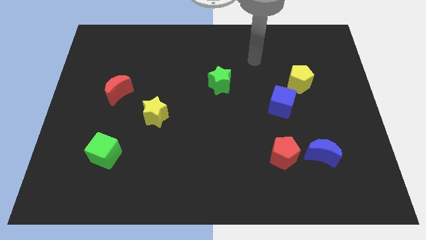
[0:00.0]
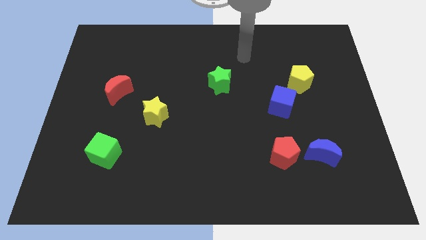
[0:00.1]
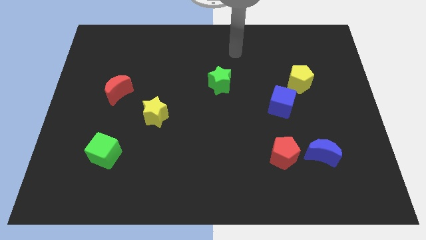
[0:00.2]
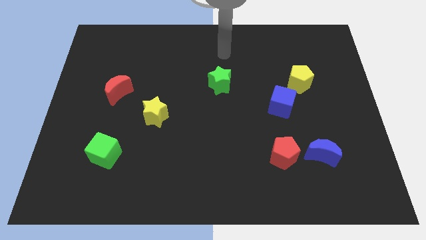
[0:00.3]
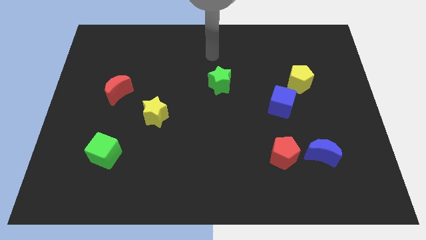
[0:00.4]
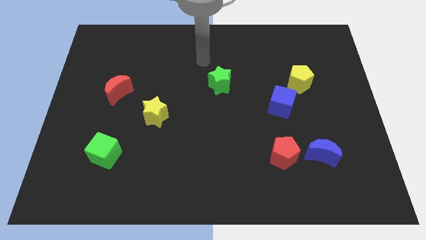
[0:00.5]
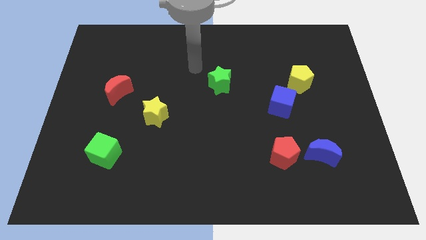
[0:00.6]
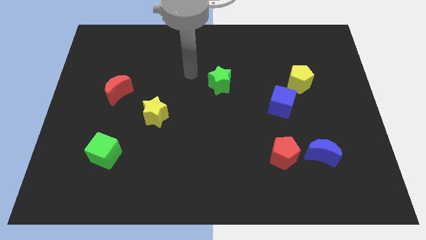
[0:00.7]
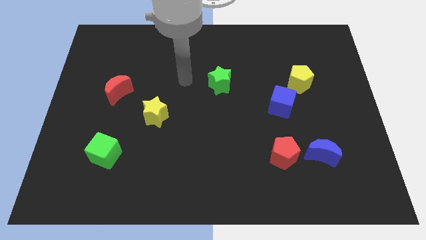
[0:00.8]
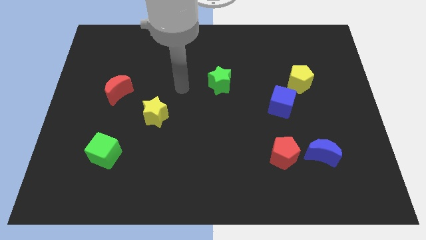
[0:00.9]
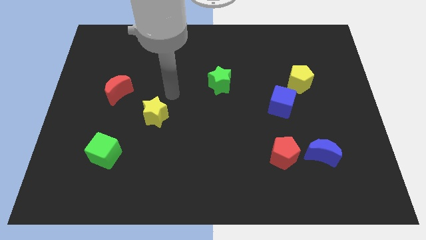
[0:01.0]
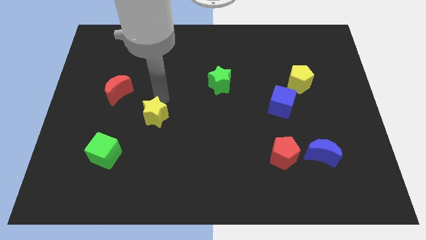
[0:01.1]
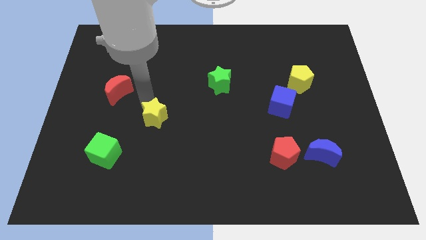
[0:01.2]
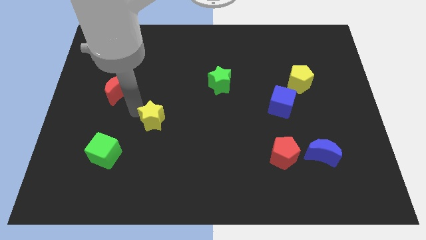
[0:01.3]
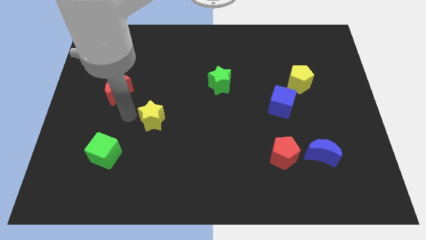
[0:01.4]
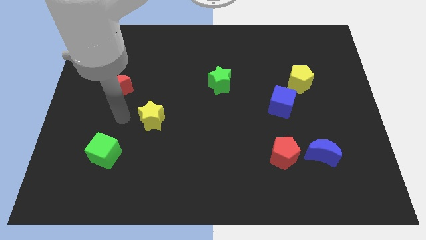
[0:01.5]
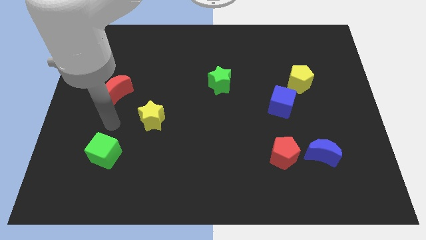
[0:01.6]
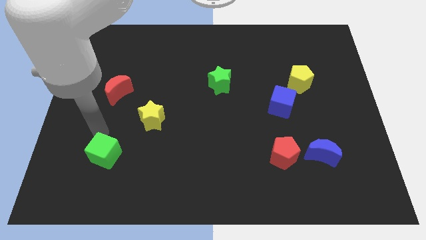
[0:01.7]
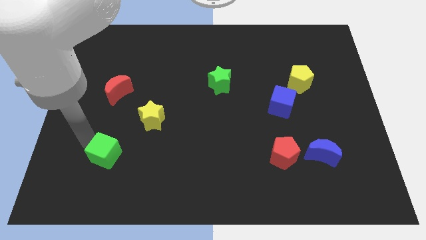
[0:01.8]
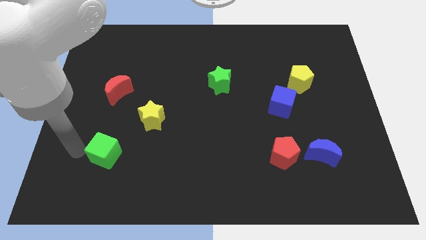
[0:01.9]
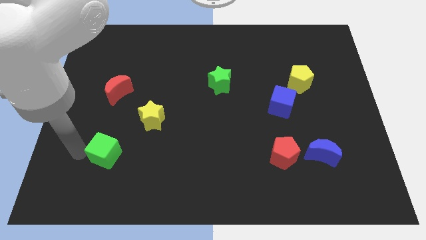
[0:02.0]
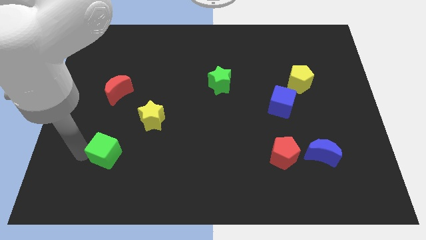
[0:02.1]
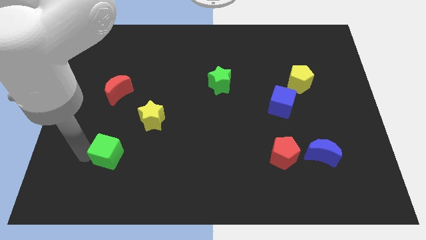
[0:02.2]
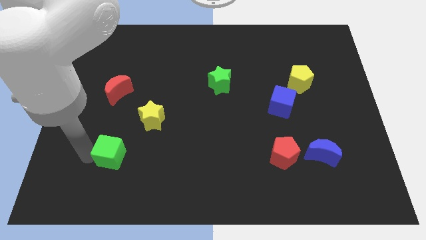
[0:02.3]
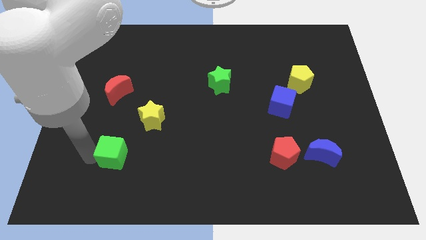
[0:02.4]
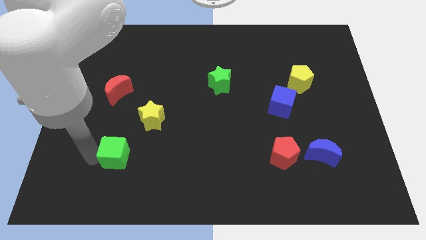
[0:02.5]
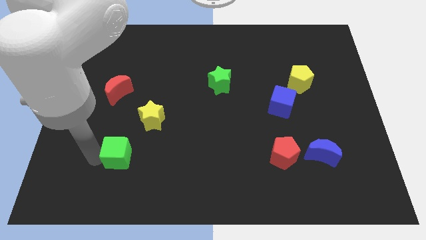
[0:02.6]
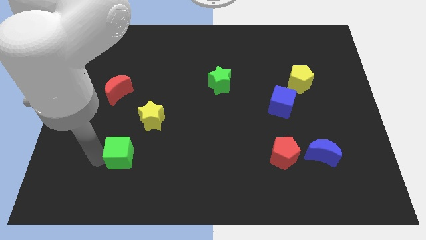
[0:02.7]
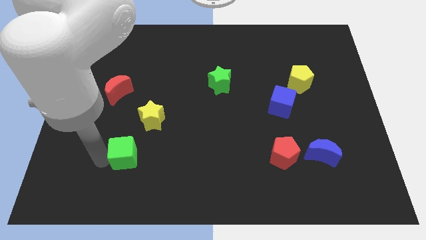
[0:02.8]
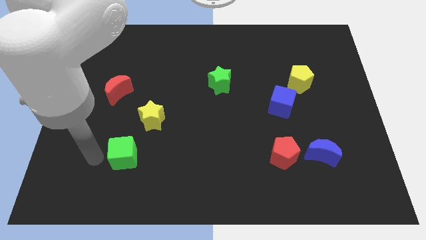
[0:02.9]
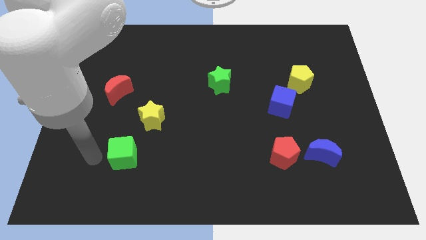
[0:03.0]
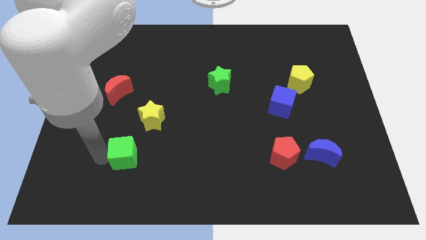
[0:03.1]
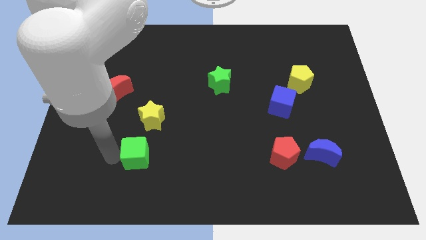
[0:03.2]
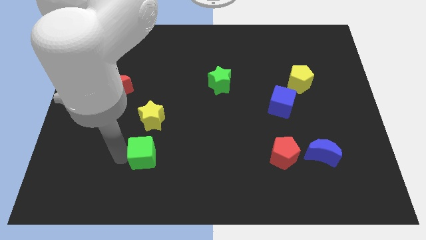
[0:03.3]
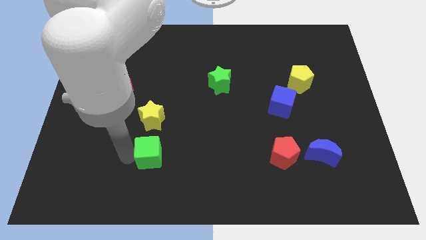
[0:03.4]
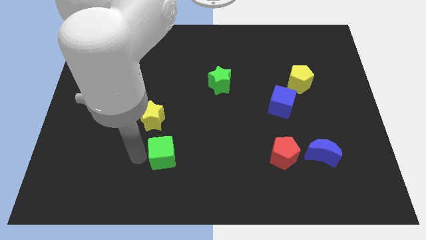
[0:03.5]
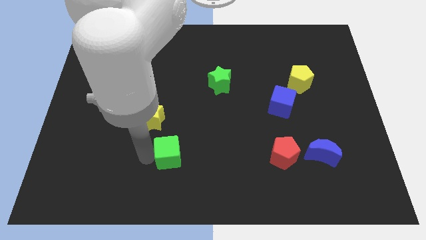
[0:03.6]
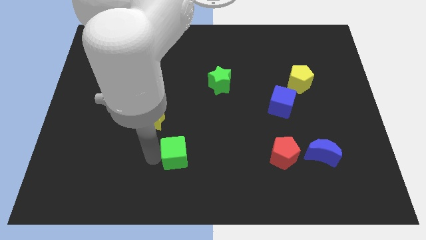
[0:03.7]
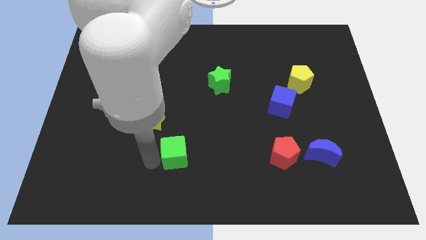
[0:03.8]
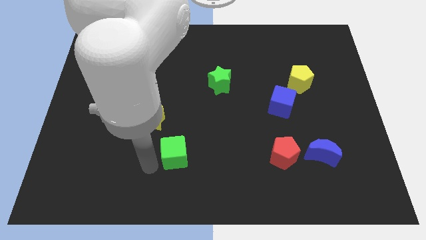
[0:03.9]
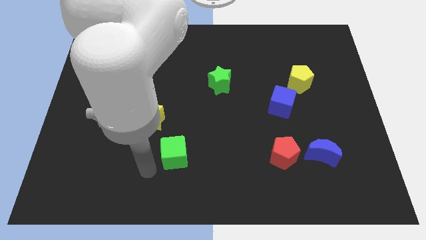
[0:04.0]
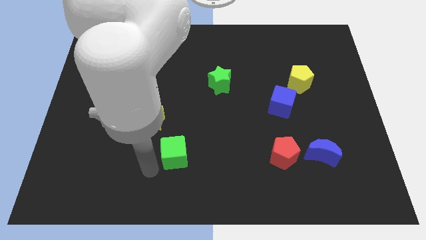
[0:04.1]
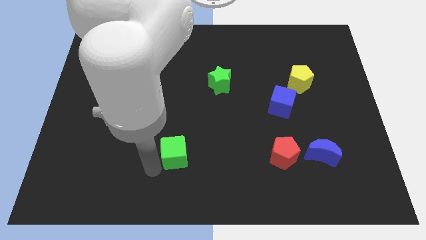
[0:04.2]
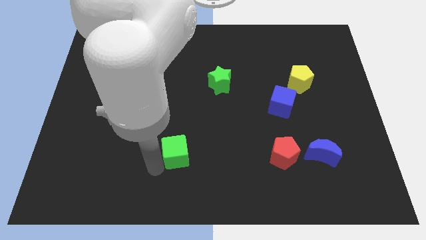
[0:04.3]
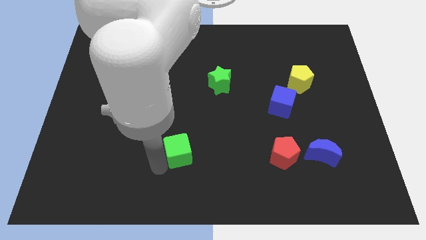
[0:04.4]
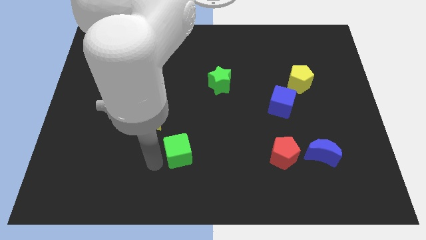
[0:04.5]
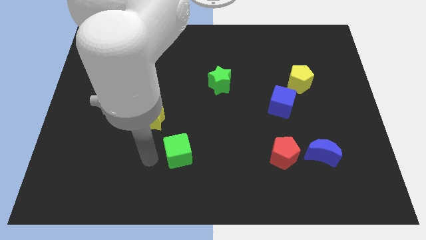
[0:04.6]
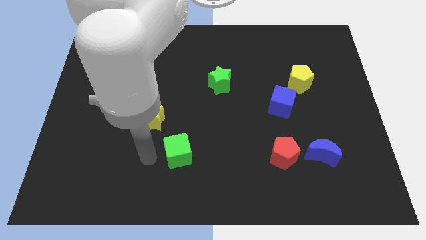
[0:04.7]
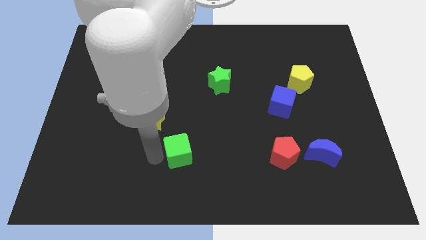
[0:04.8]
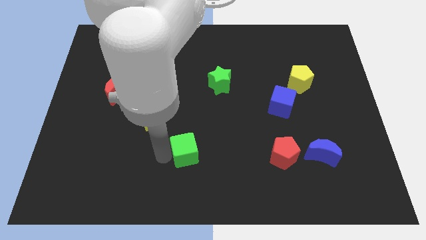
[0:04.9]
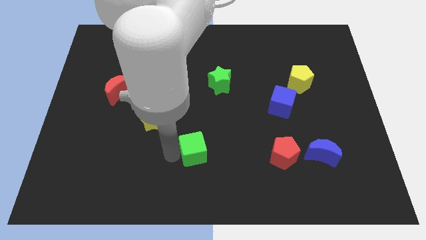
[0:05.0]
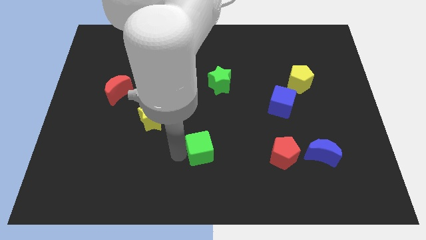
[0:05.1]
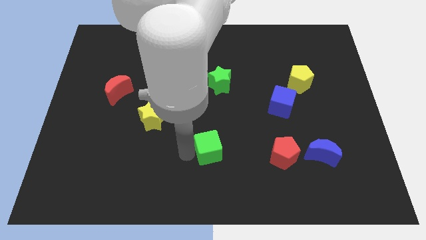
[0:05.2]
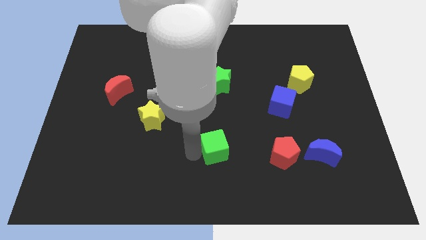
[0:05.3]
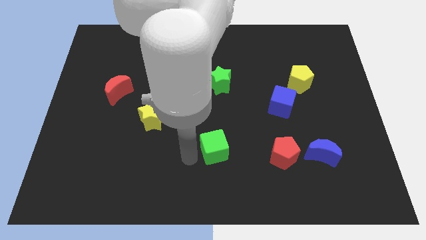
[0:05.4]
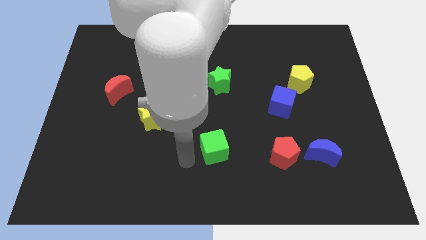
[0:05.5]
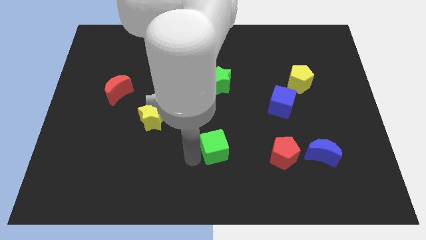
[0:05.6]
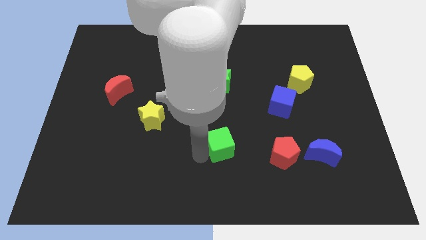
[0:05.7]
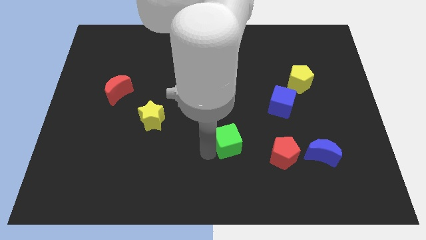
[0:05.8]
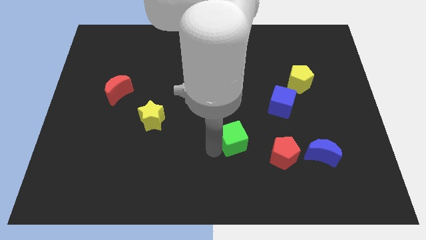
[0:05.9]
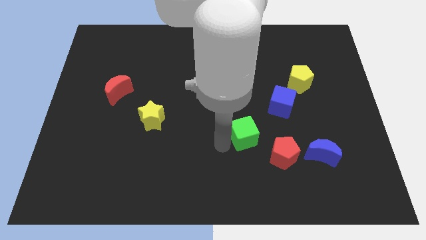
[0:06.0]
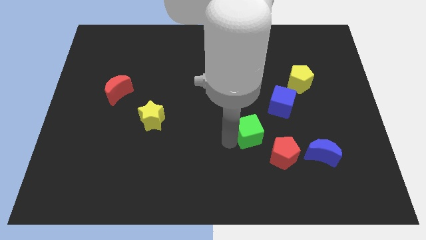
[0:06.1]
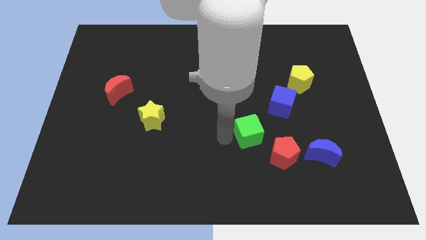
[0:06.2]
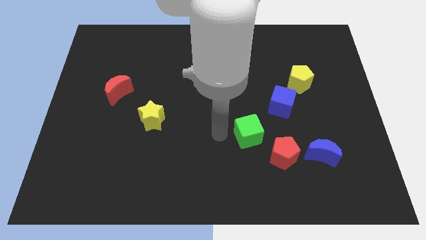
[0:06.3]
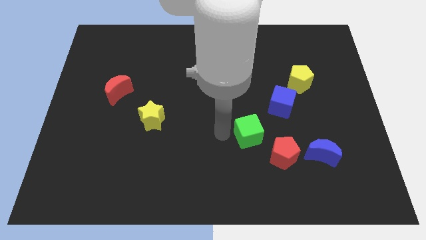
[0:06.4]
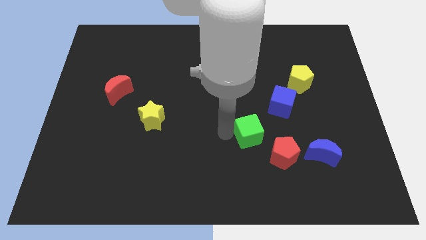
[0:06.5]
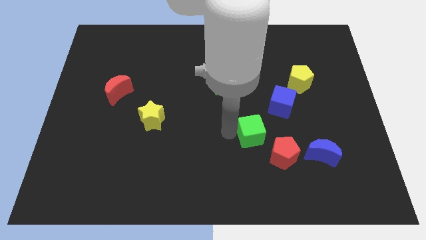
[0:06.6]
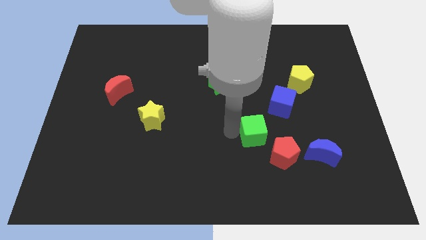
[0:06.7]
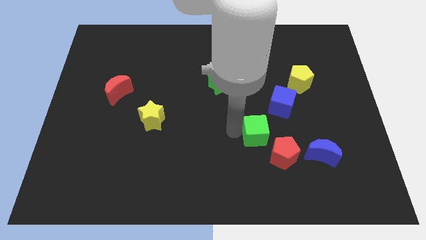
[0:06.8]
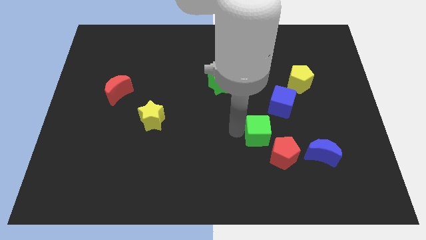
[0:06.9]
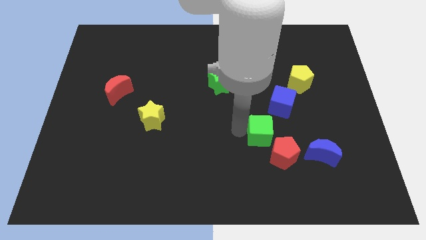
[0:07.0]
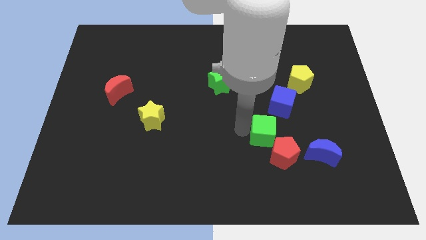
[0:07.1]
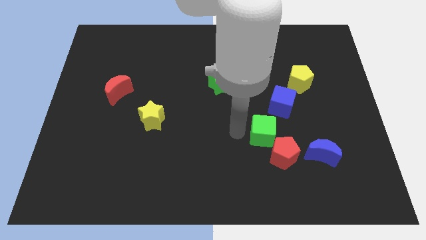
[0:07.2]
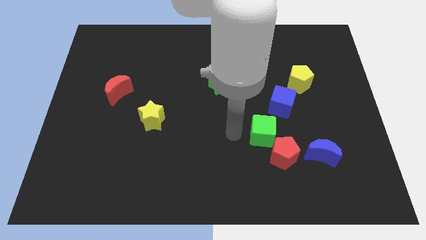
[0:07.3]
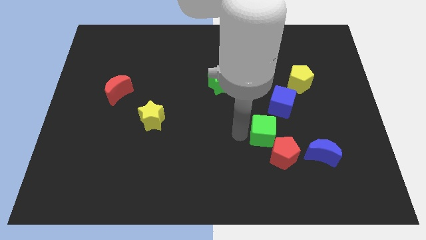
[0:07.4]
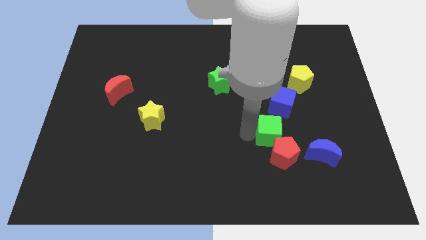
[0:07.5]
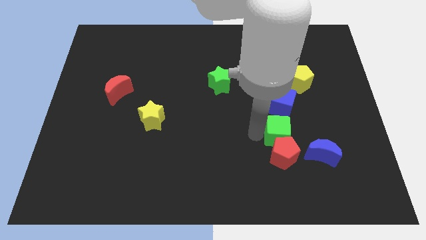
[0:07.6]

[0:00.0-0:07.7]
slide the green cube to the top left side of the blue moon
